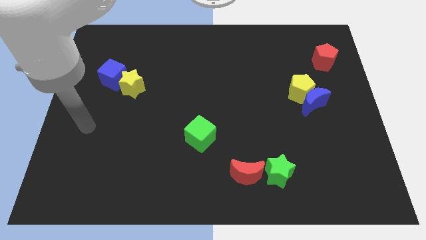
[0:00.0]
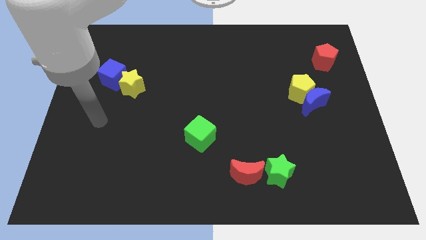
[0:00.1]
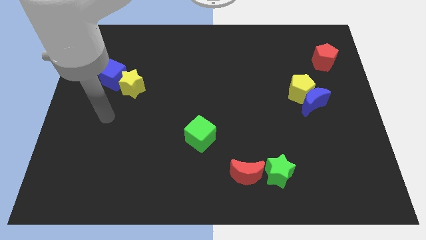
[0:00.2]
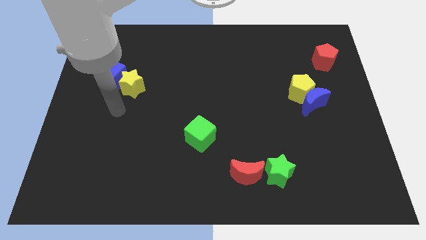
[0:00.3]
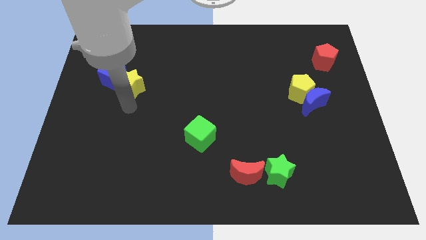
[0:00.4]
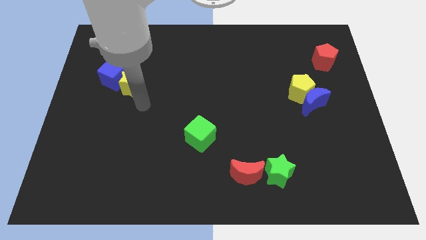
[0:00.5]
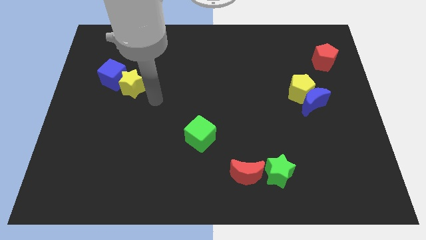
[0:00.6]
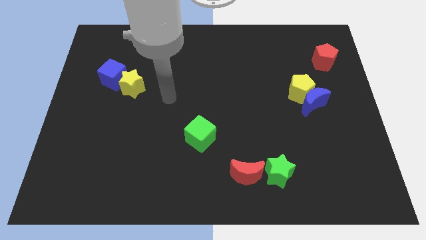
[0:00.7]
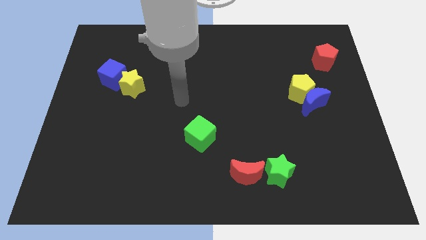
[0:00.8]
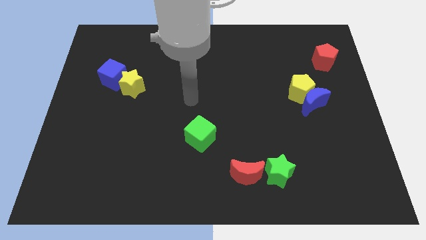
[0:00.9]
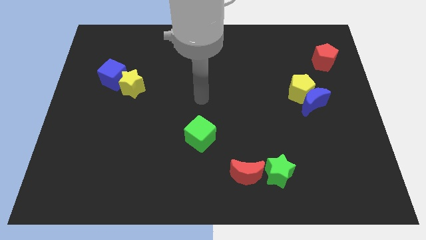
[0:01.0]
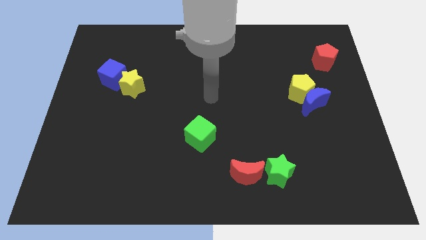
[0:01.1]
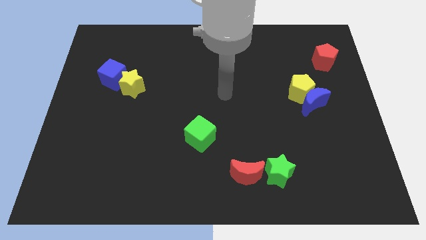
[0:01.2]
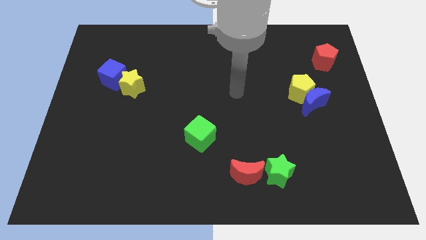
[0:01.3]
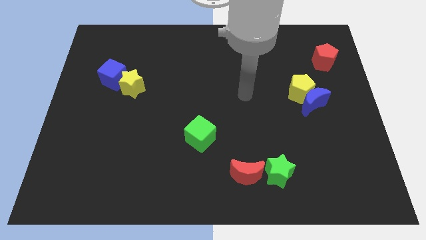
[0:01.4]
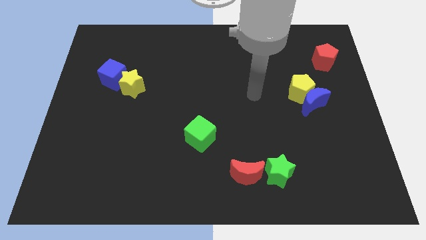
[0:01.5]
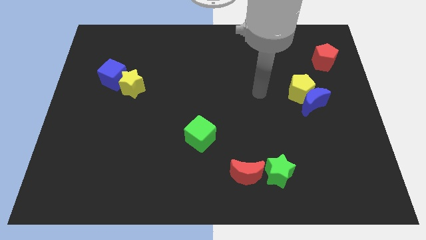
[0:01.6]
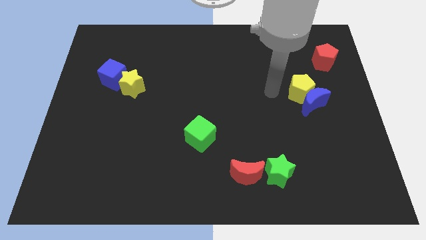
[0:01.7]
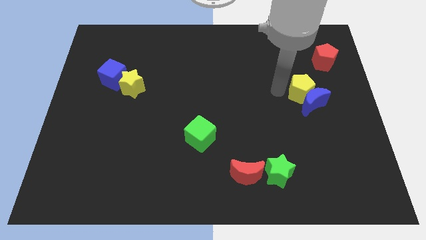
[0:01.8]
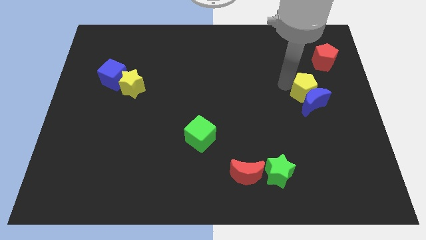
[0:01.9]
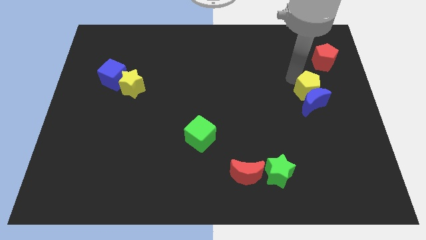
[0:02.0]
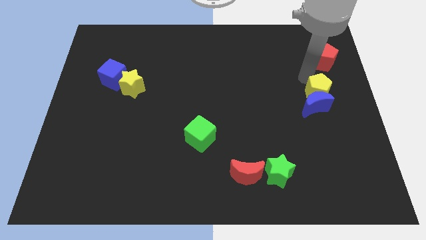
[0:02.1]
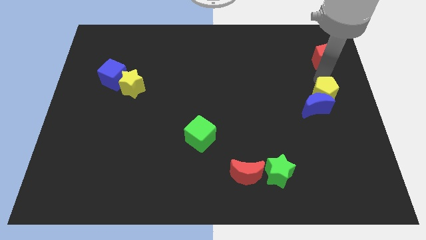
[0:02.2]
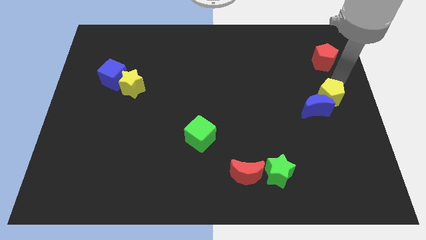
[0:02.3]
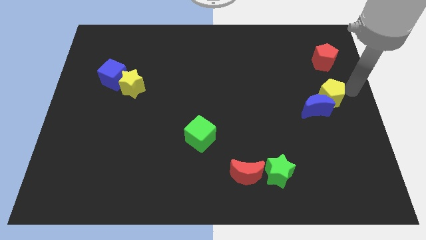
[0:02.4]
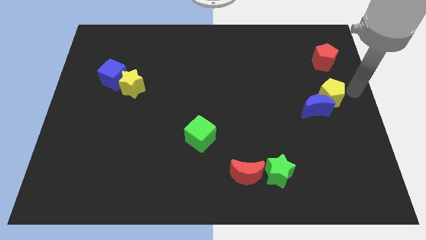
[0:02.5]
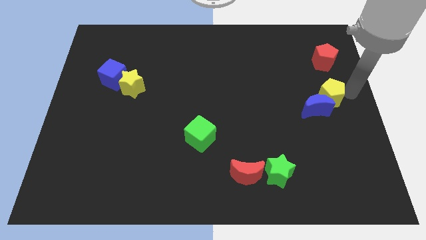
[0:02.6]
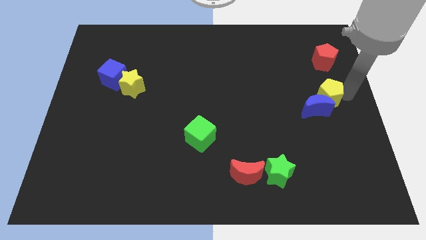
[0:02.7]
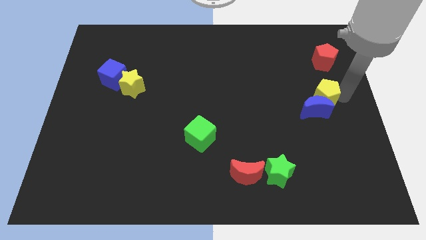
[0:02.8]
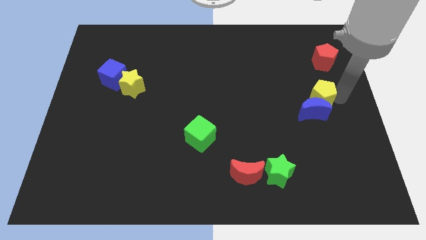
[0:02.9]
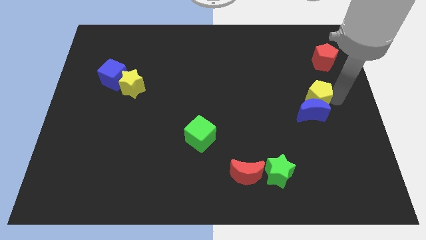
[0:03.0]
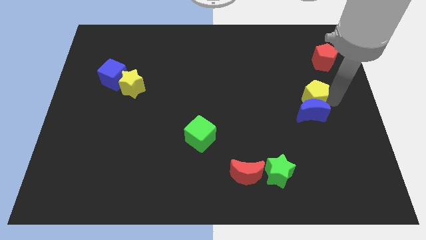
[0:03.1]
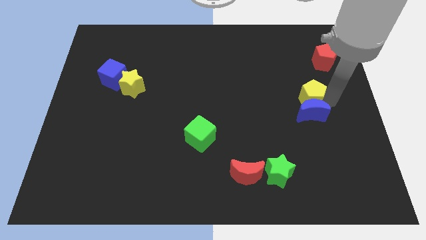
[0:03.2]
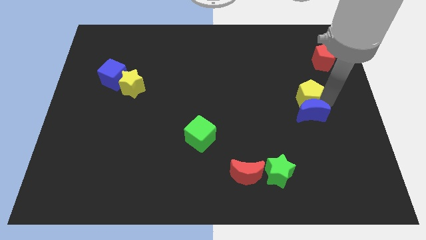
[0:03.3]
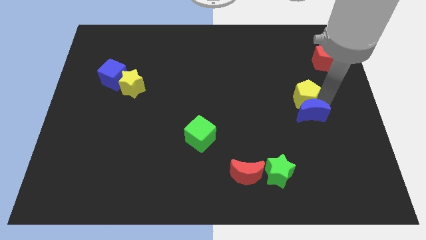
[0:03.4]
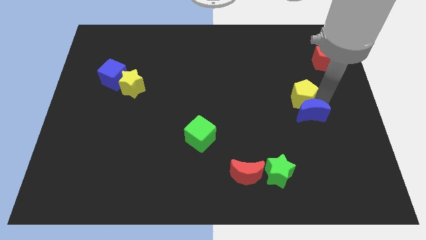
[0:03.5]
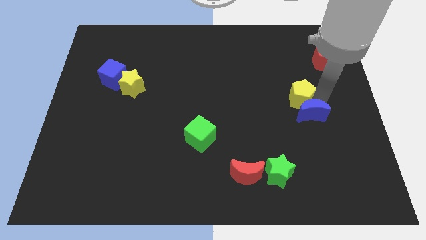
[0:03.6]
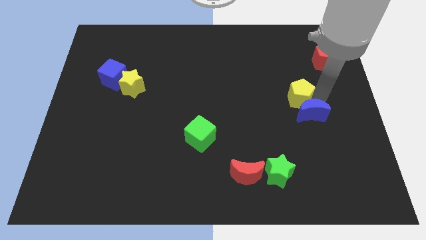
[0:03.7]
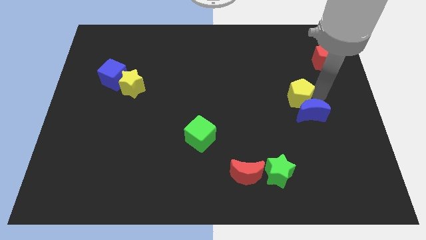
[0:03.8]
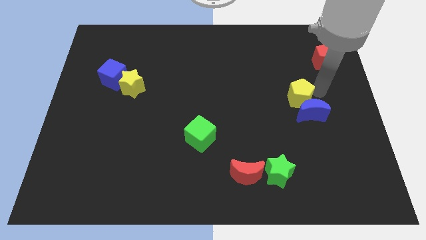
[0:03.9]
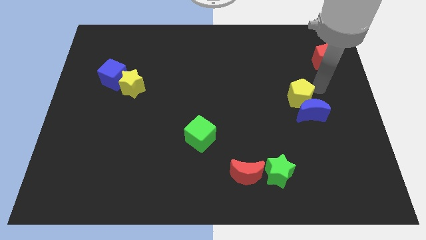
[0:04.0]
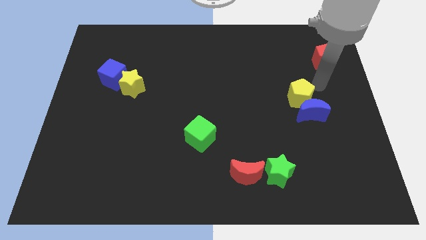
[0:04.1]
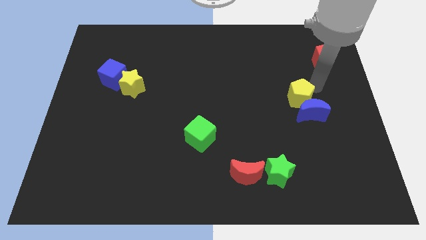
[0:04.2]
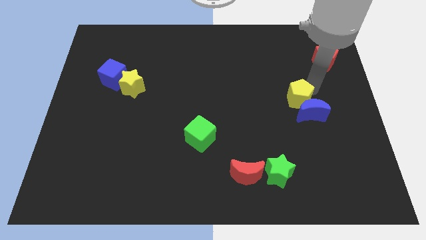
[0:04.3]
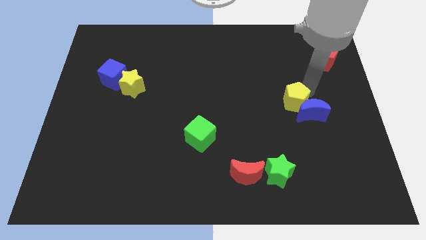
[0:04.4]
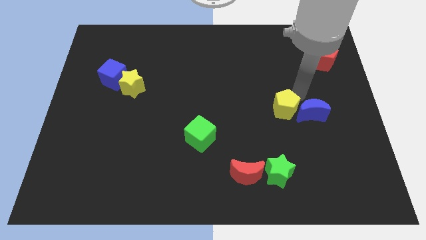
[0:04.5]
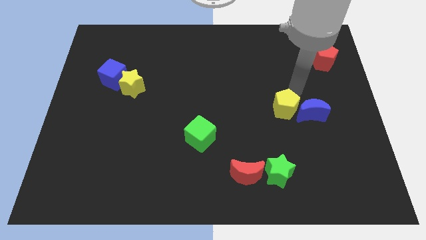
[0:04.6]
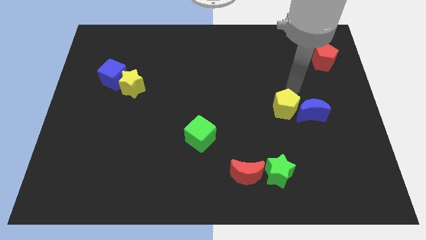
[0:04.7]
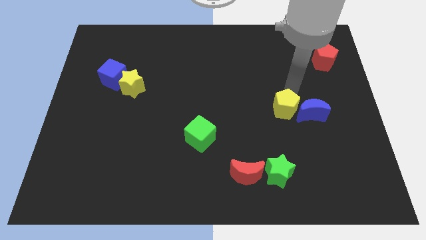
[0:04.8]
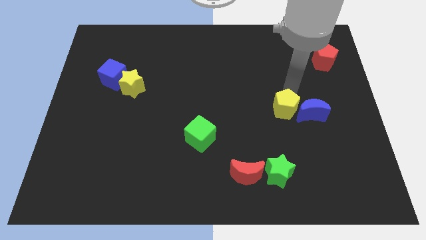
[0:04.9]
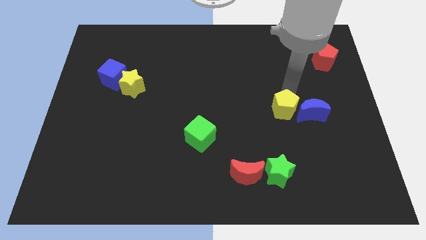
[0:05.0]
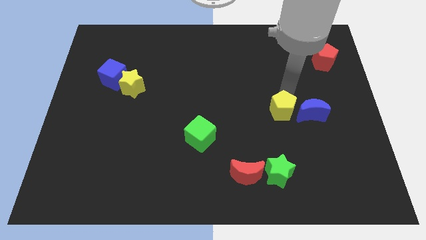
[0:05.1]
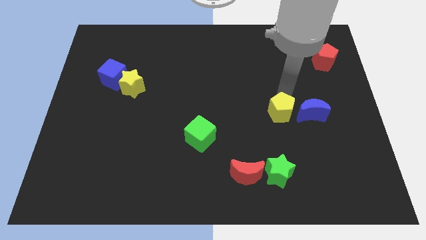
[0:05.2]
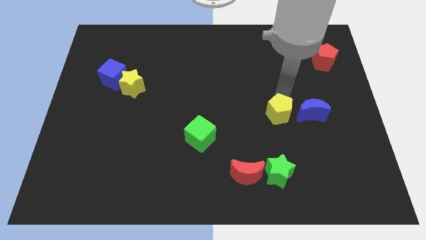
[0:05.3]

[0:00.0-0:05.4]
slide the yellow pentagon to the top side of the green star

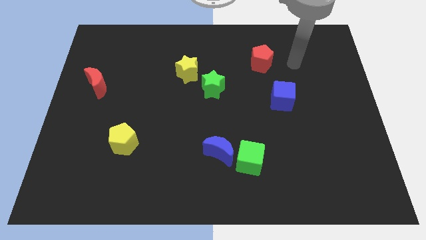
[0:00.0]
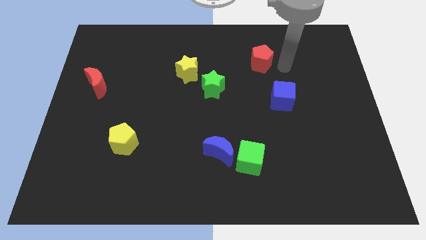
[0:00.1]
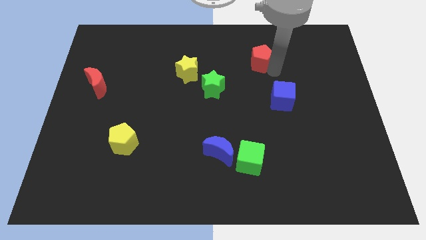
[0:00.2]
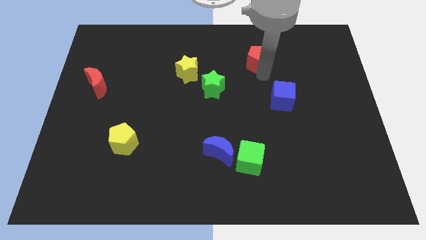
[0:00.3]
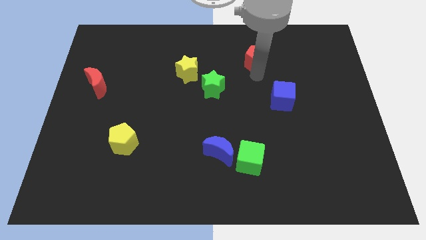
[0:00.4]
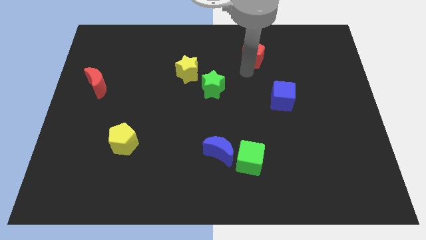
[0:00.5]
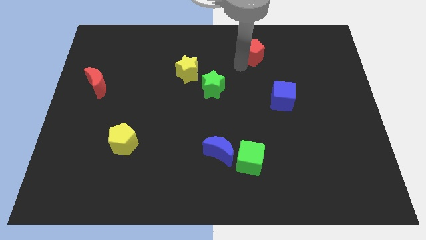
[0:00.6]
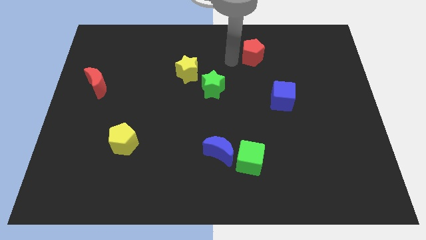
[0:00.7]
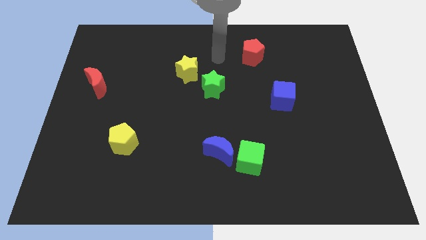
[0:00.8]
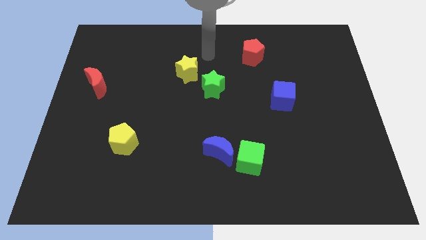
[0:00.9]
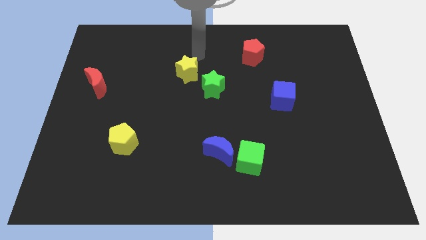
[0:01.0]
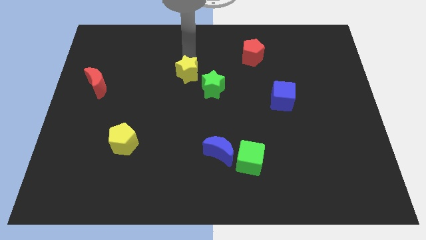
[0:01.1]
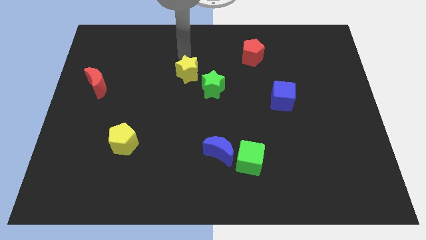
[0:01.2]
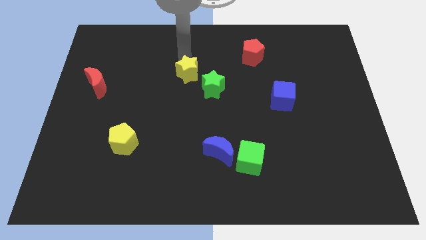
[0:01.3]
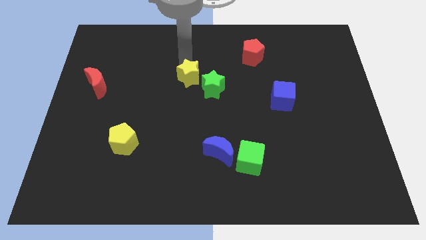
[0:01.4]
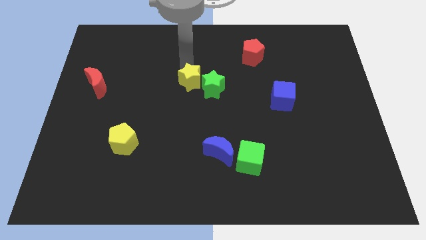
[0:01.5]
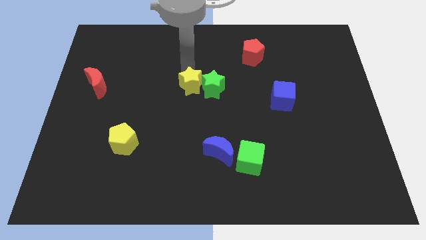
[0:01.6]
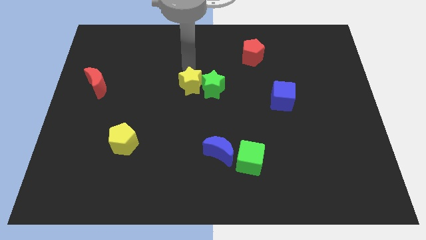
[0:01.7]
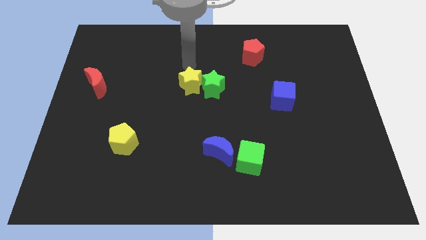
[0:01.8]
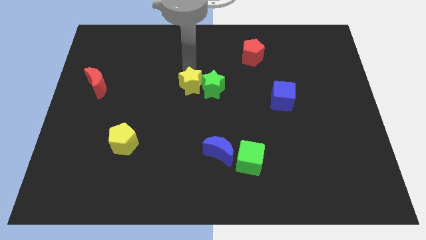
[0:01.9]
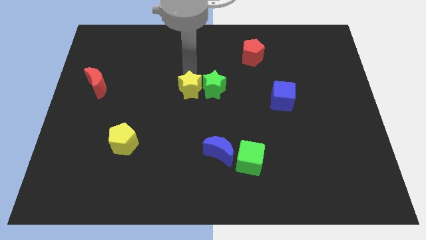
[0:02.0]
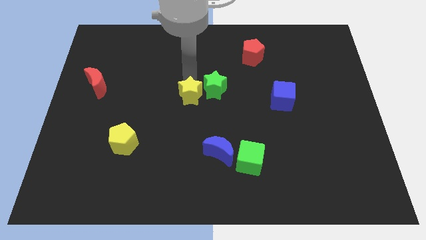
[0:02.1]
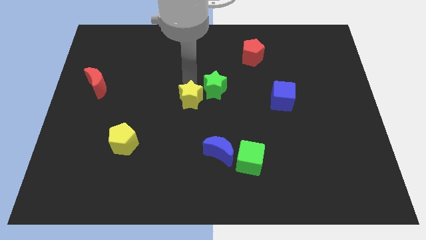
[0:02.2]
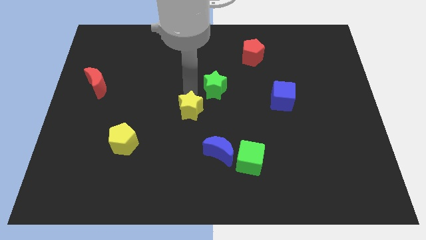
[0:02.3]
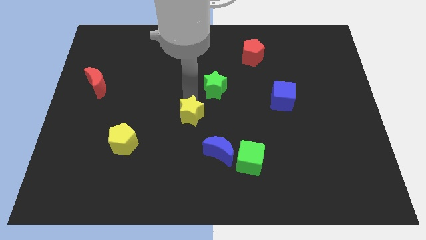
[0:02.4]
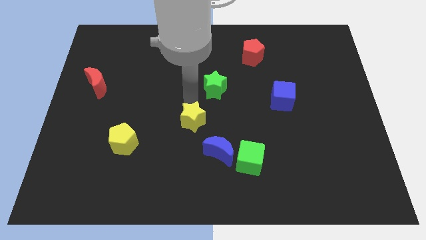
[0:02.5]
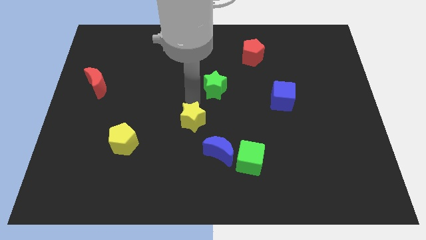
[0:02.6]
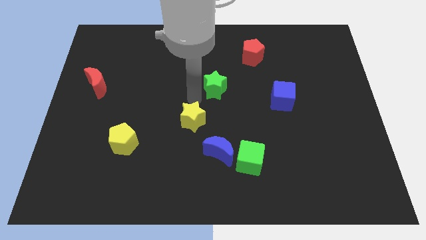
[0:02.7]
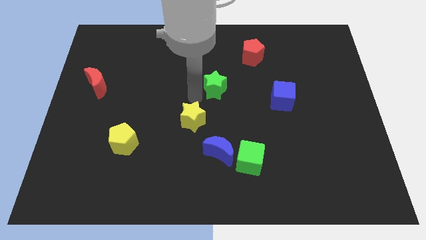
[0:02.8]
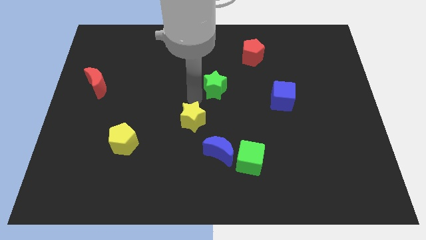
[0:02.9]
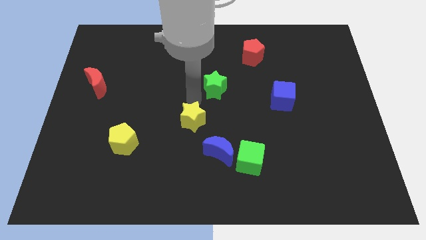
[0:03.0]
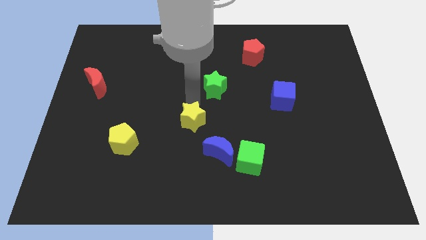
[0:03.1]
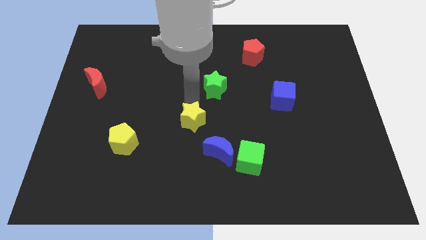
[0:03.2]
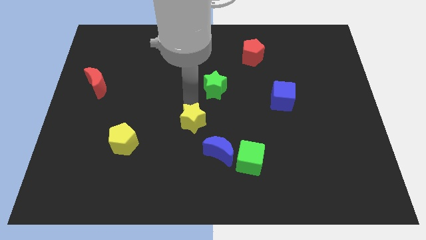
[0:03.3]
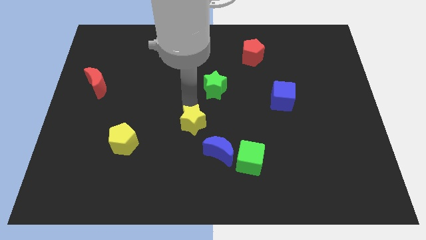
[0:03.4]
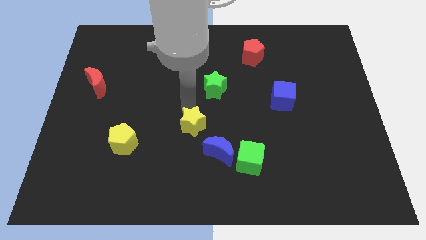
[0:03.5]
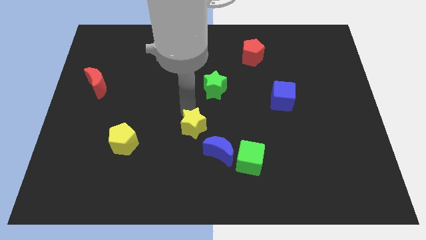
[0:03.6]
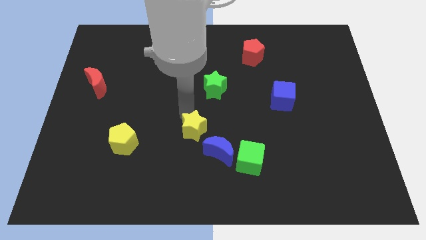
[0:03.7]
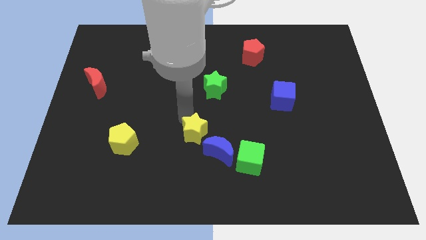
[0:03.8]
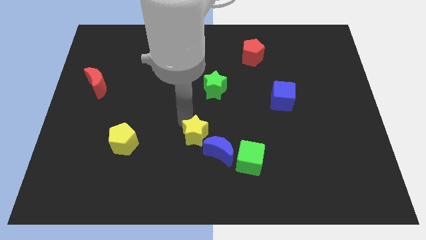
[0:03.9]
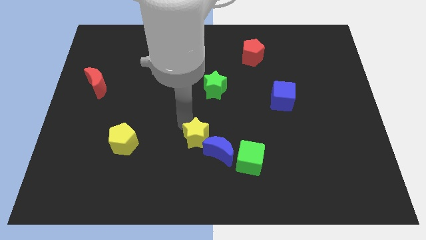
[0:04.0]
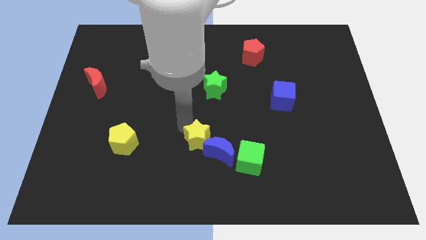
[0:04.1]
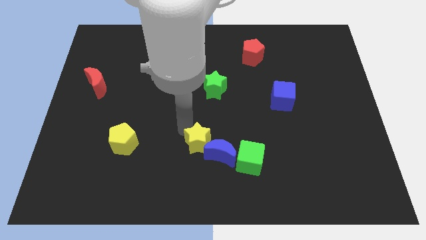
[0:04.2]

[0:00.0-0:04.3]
move the yellow star left of the green cube
